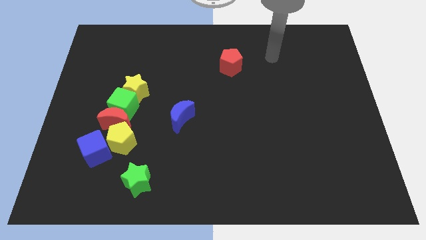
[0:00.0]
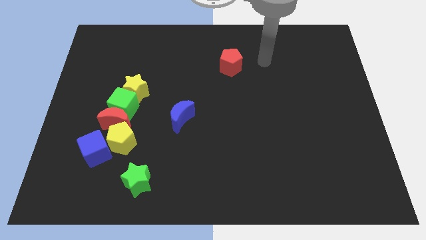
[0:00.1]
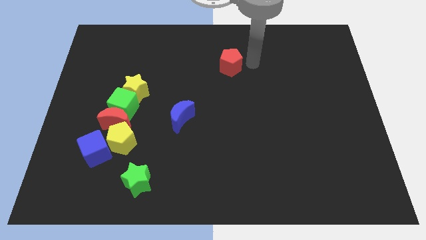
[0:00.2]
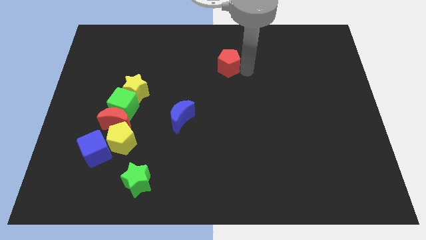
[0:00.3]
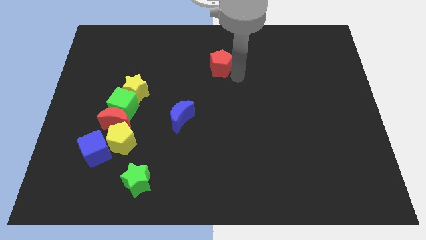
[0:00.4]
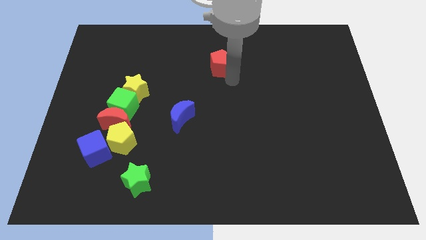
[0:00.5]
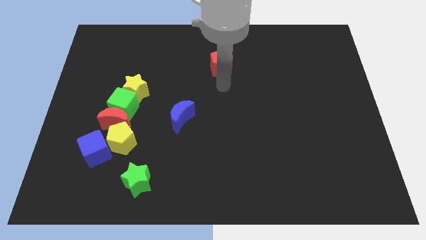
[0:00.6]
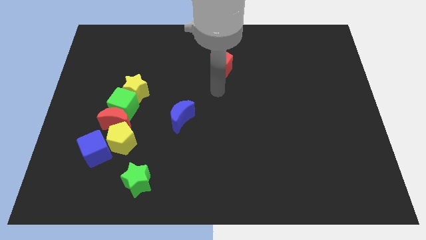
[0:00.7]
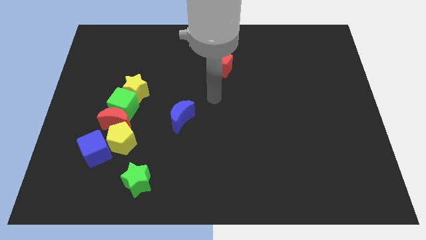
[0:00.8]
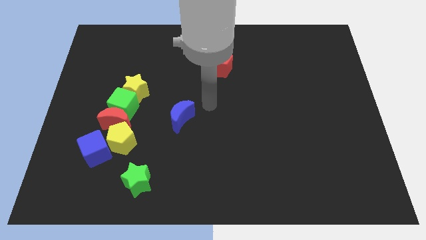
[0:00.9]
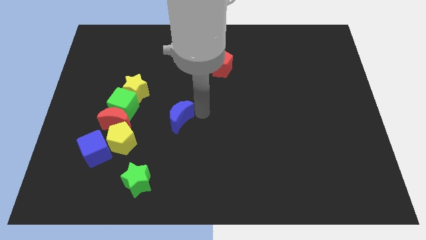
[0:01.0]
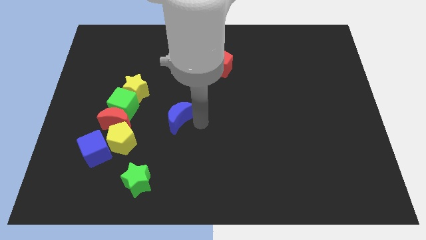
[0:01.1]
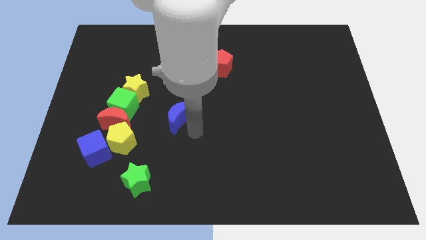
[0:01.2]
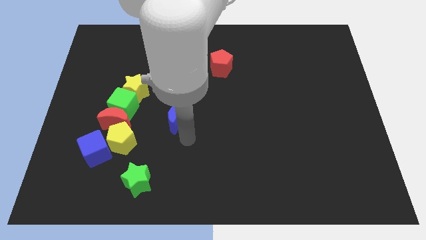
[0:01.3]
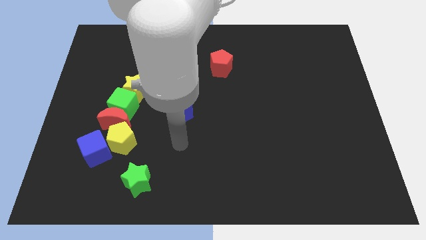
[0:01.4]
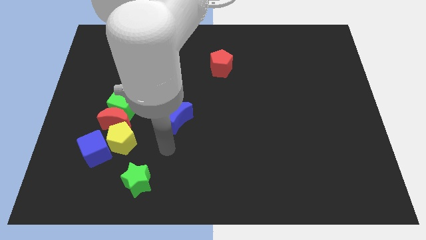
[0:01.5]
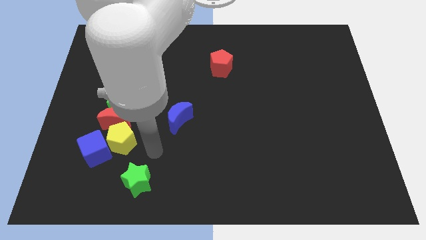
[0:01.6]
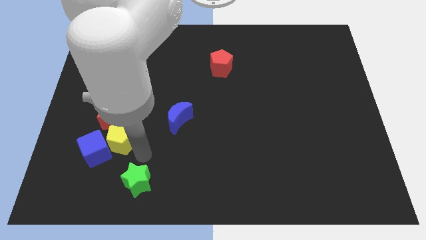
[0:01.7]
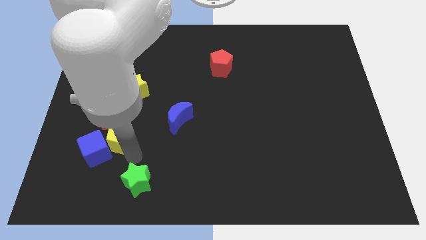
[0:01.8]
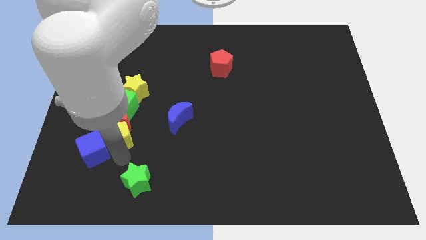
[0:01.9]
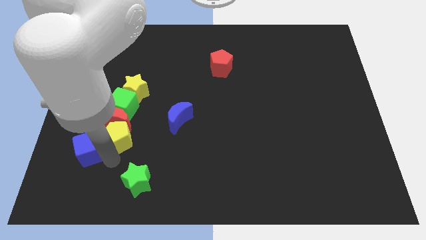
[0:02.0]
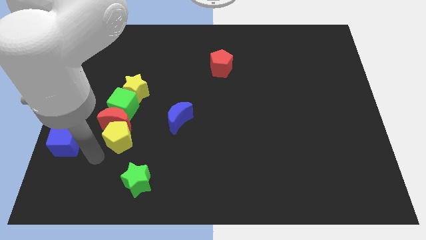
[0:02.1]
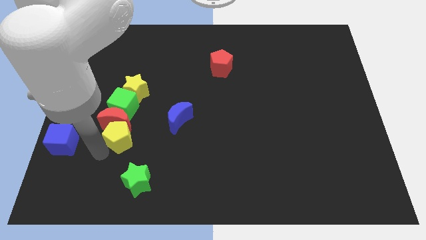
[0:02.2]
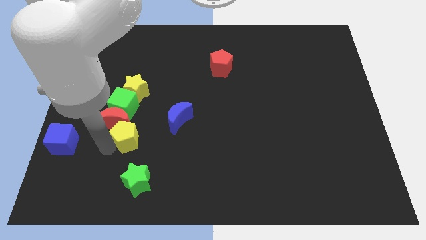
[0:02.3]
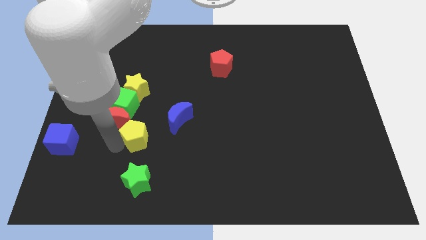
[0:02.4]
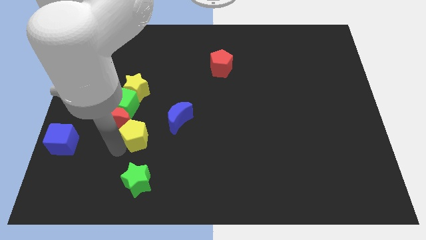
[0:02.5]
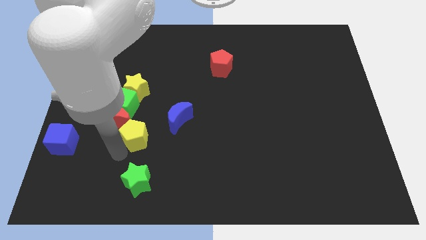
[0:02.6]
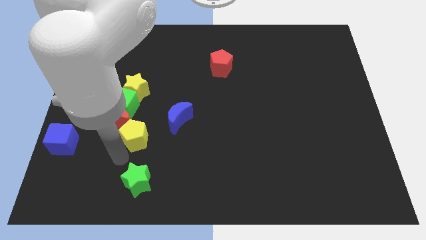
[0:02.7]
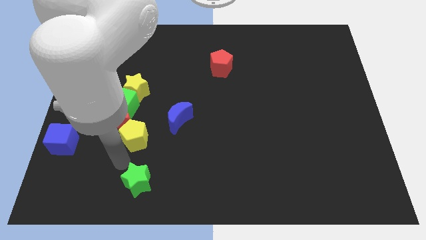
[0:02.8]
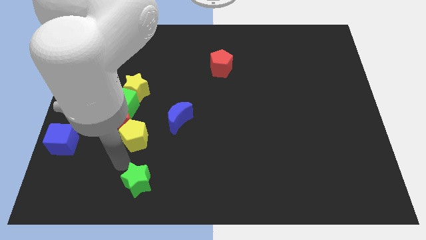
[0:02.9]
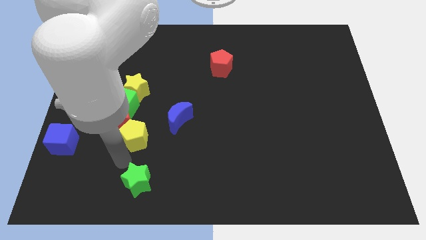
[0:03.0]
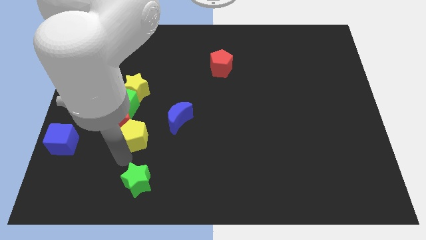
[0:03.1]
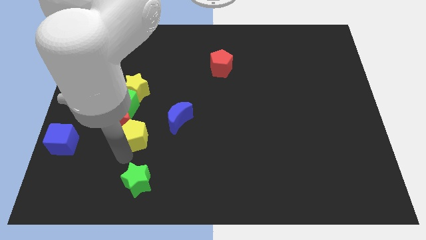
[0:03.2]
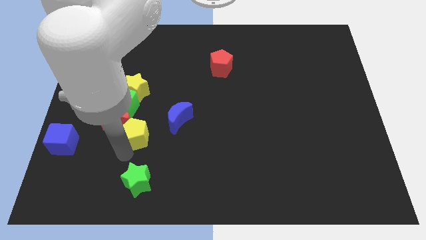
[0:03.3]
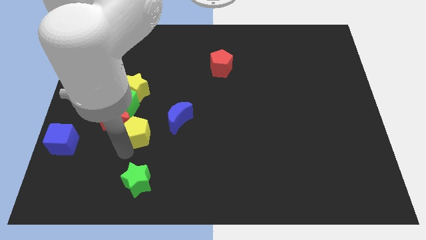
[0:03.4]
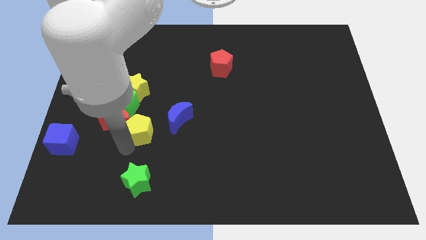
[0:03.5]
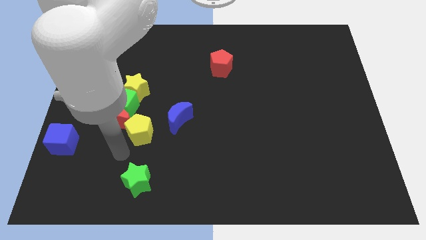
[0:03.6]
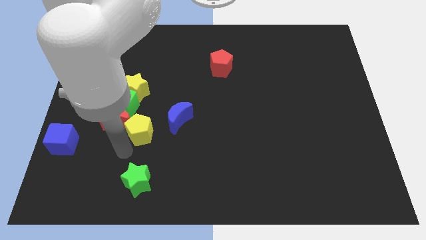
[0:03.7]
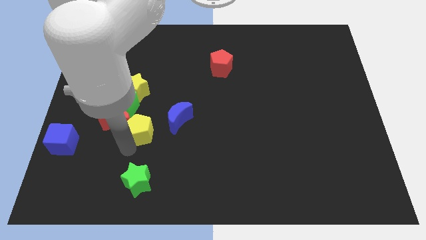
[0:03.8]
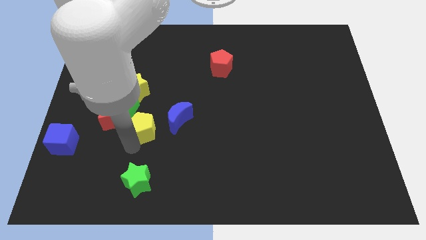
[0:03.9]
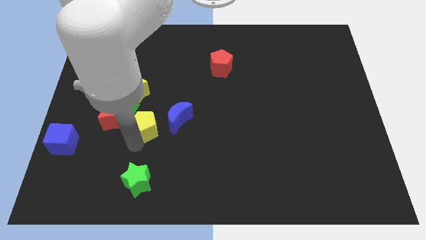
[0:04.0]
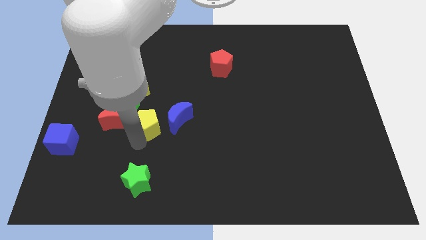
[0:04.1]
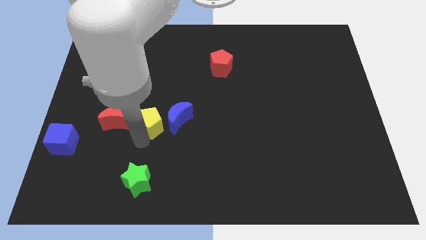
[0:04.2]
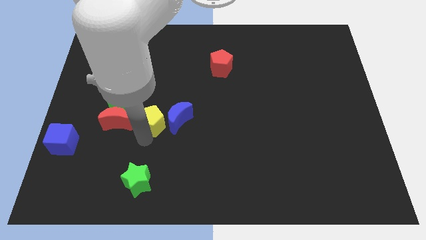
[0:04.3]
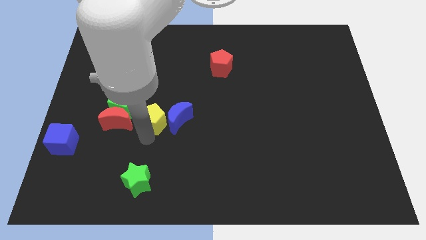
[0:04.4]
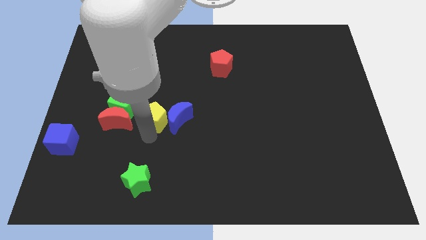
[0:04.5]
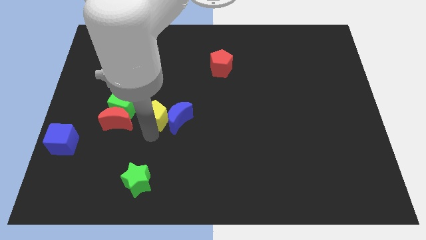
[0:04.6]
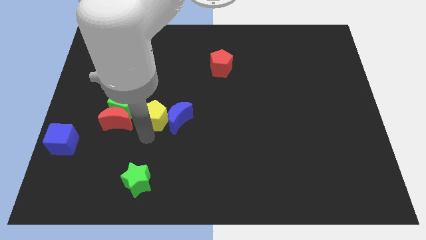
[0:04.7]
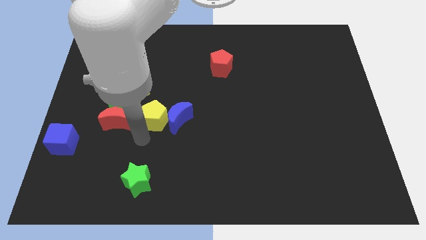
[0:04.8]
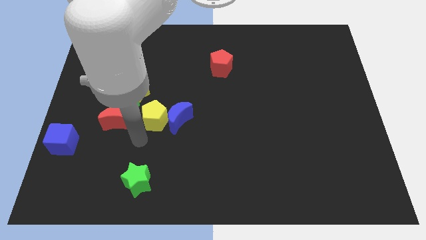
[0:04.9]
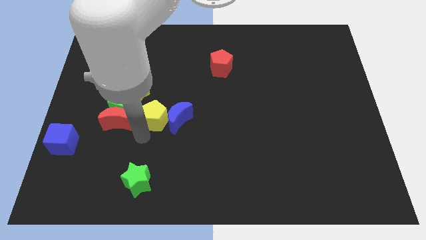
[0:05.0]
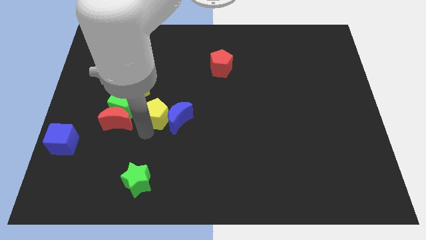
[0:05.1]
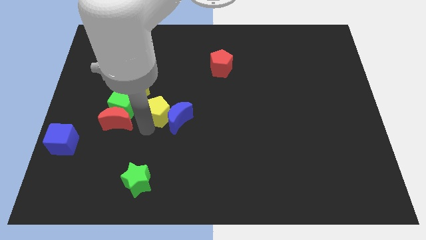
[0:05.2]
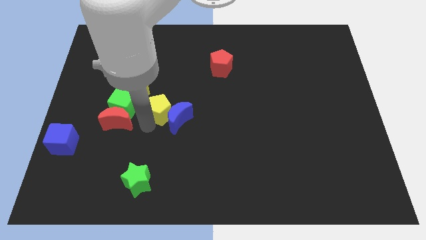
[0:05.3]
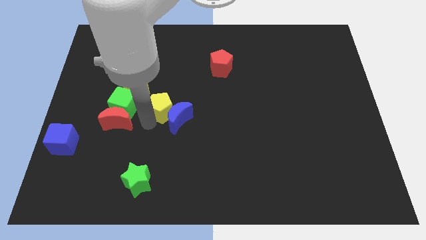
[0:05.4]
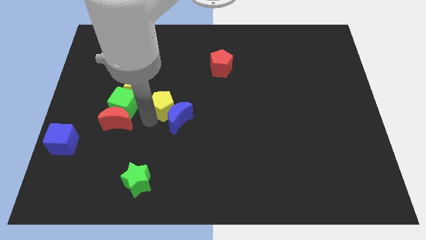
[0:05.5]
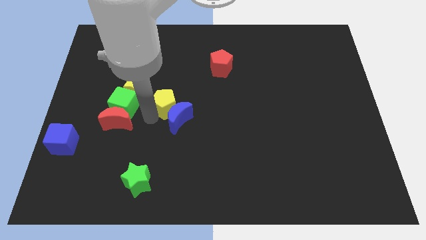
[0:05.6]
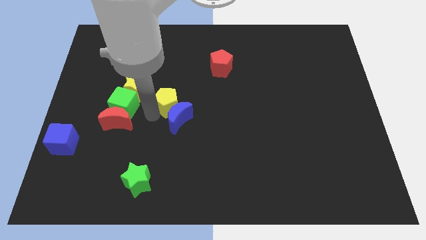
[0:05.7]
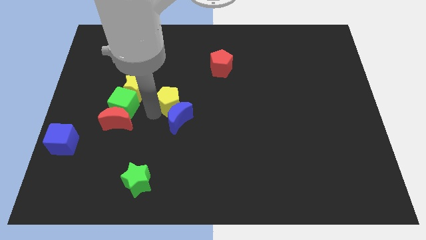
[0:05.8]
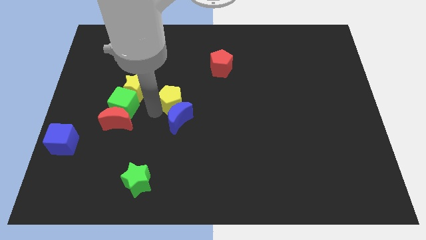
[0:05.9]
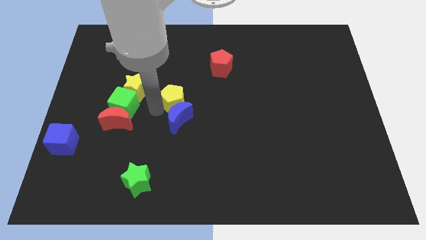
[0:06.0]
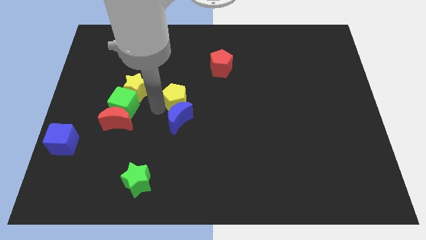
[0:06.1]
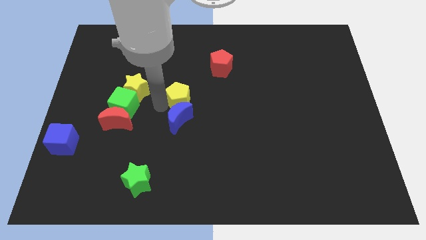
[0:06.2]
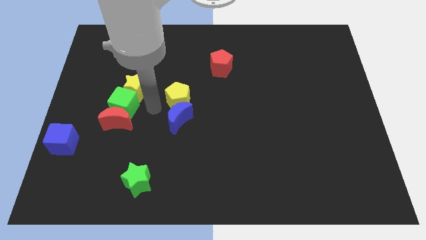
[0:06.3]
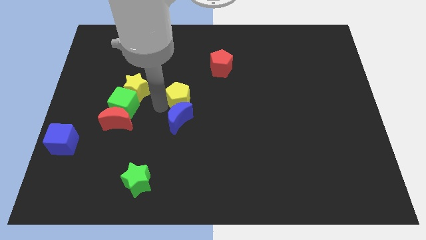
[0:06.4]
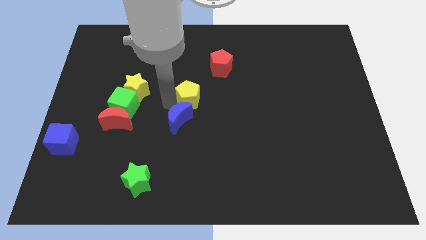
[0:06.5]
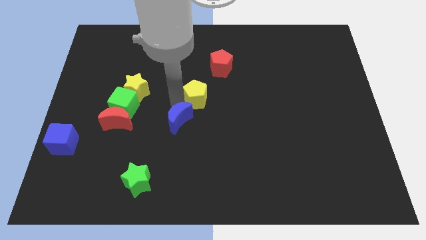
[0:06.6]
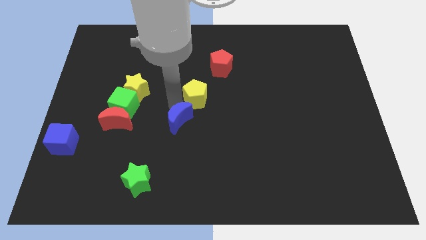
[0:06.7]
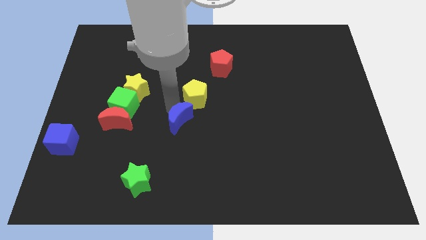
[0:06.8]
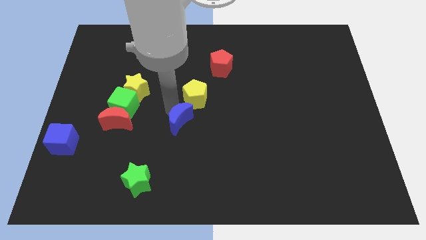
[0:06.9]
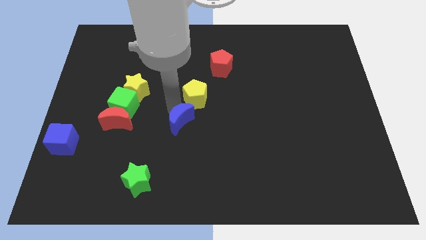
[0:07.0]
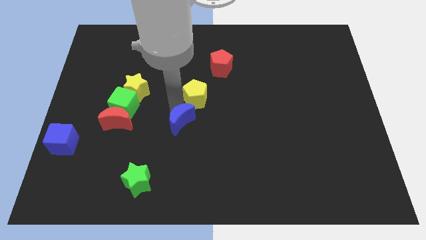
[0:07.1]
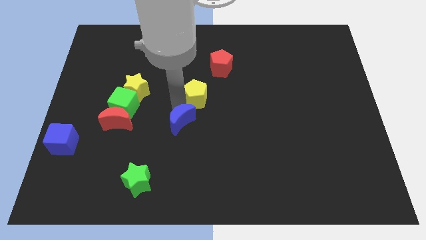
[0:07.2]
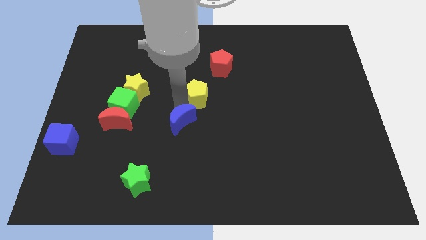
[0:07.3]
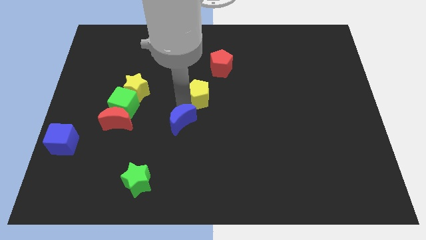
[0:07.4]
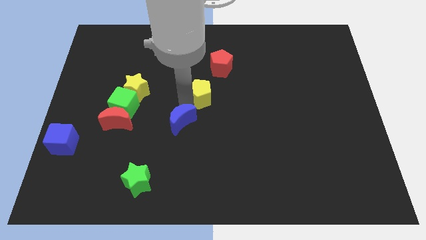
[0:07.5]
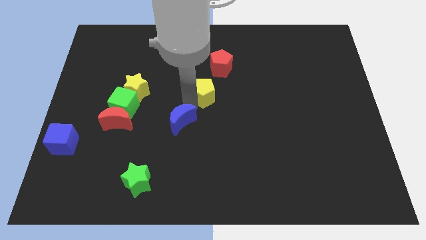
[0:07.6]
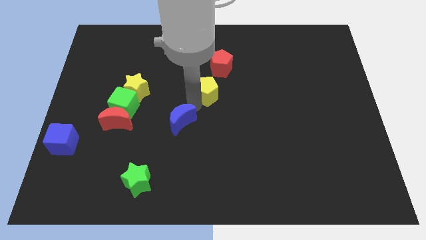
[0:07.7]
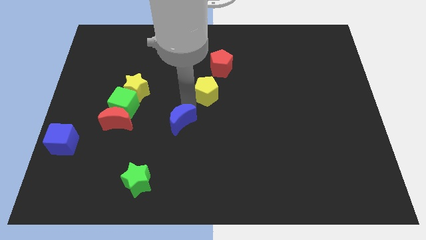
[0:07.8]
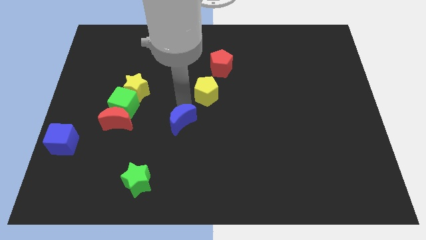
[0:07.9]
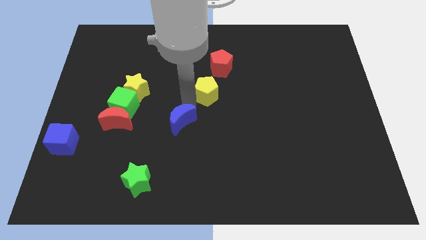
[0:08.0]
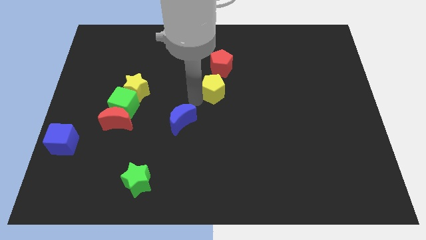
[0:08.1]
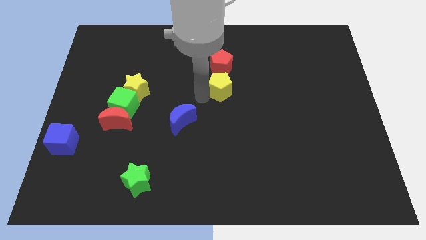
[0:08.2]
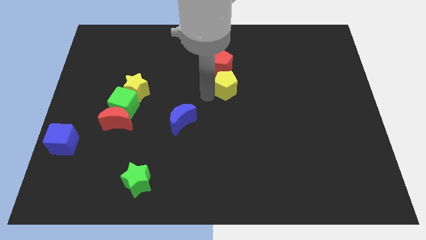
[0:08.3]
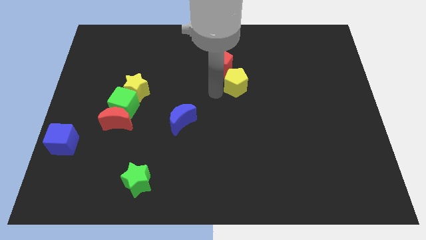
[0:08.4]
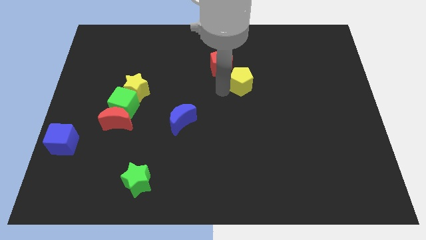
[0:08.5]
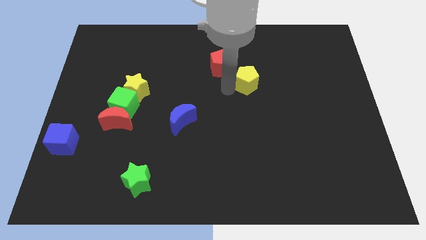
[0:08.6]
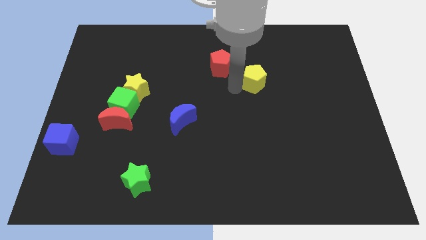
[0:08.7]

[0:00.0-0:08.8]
slide the yellow pentagon right of the red pentagon
